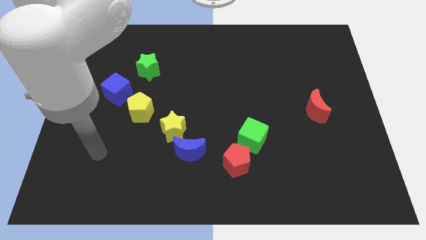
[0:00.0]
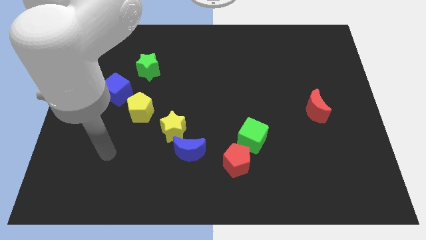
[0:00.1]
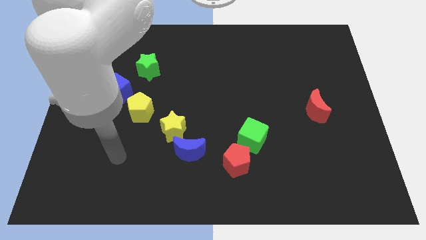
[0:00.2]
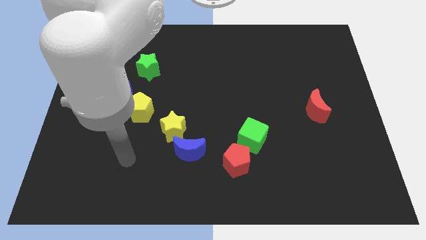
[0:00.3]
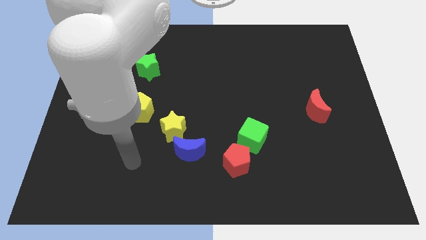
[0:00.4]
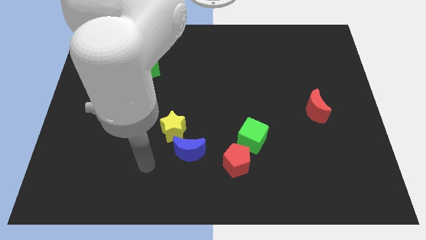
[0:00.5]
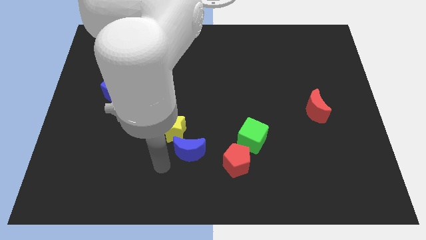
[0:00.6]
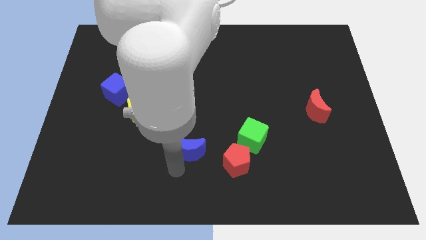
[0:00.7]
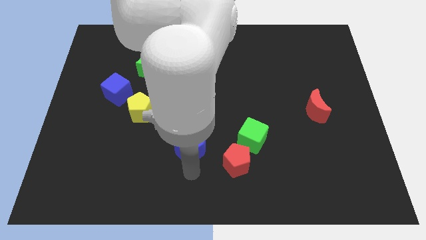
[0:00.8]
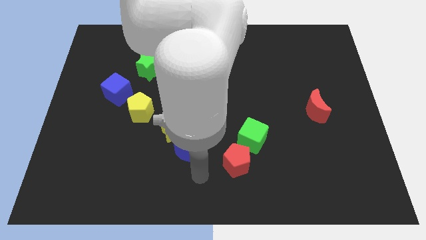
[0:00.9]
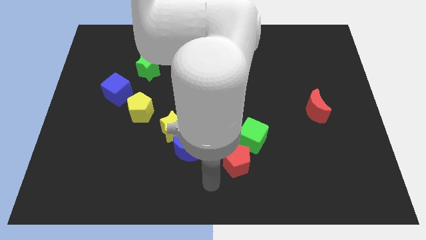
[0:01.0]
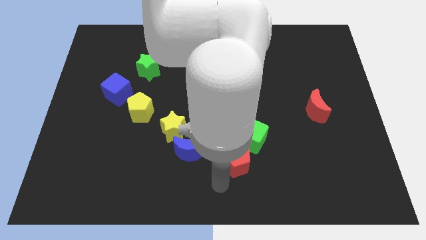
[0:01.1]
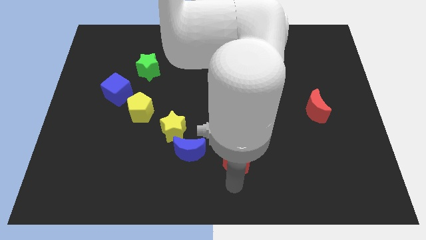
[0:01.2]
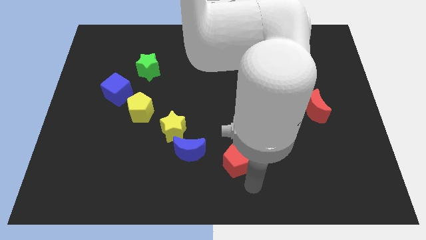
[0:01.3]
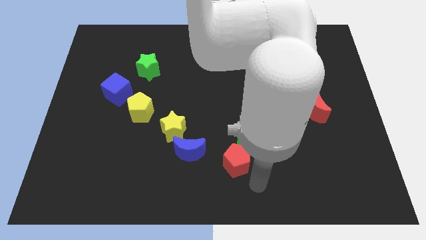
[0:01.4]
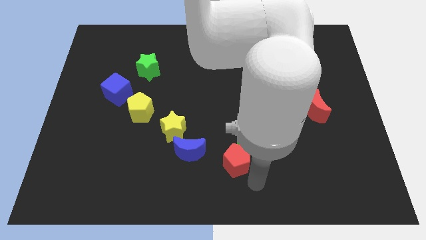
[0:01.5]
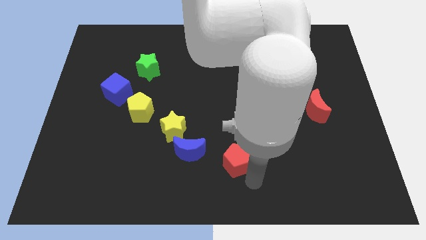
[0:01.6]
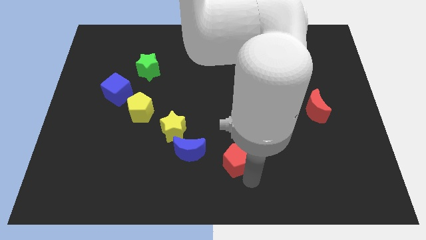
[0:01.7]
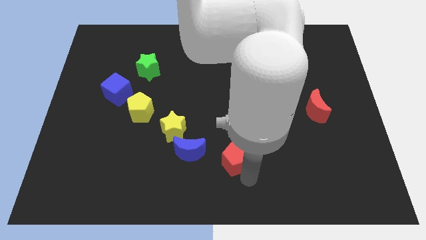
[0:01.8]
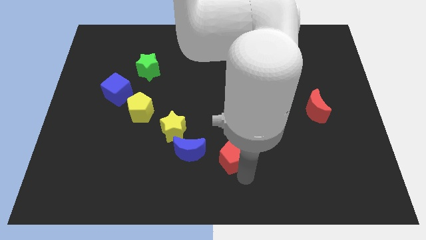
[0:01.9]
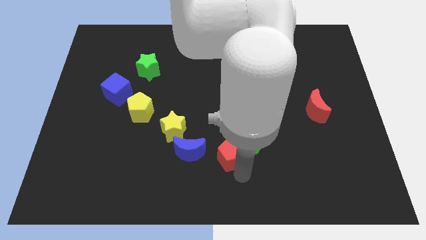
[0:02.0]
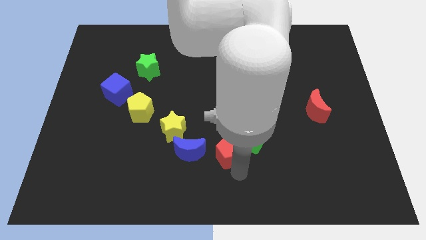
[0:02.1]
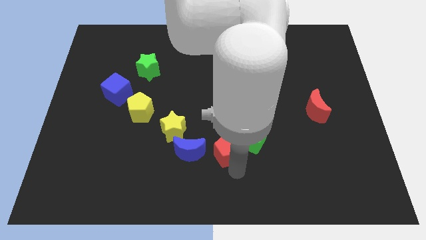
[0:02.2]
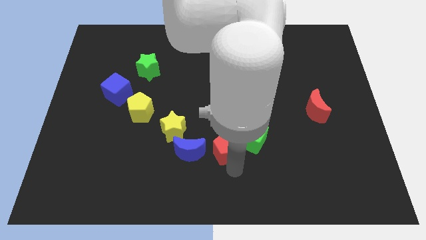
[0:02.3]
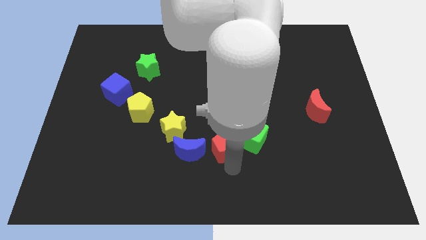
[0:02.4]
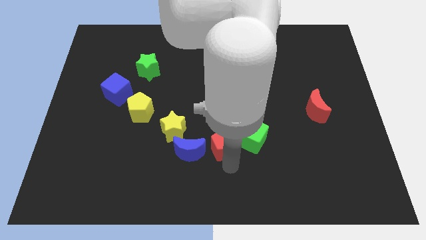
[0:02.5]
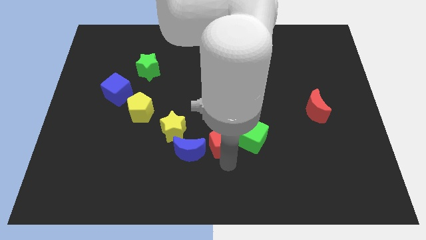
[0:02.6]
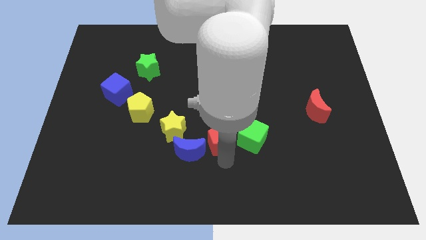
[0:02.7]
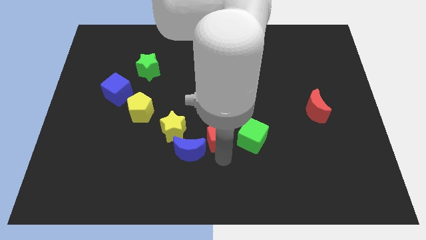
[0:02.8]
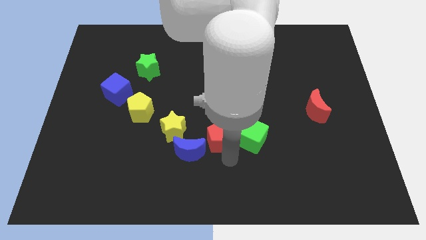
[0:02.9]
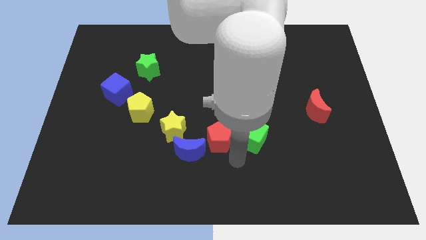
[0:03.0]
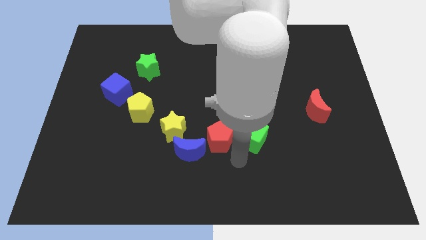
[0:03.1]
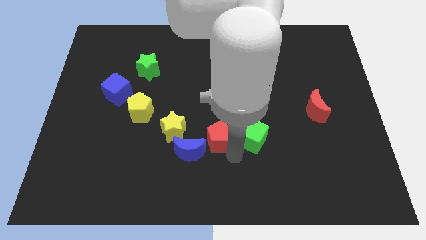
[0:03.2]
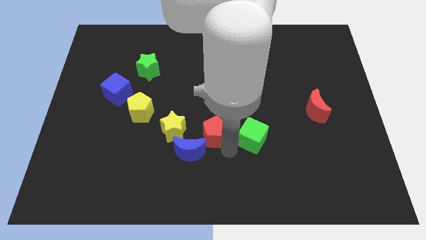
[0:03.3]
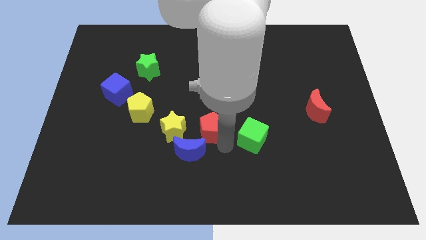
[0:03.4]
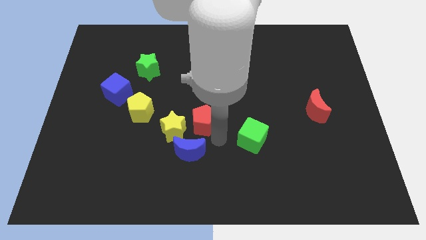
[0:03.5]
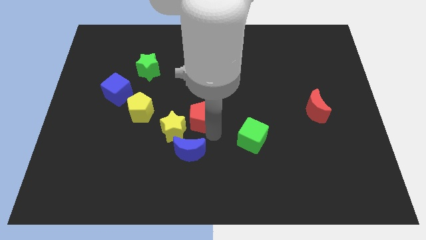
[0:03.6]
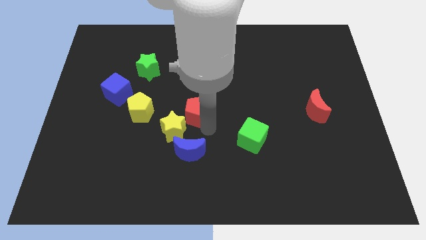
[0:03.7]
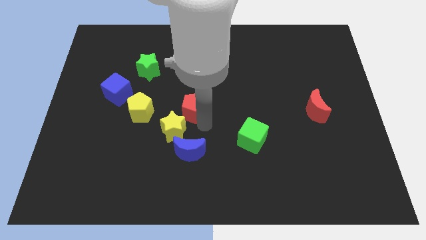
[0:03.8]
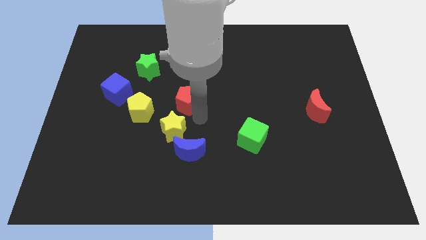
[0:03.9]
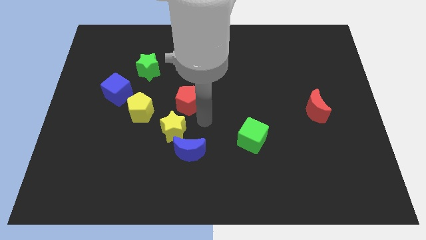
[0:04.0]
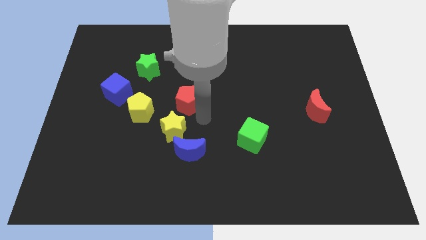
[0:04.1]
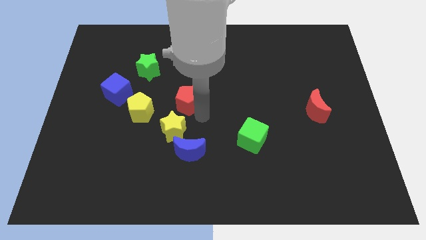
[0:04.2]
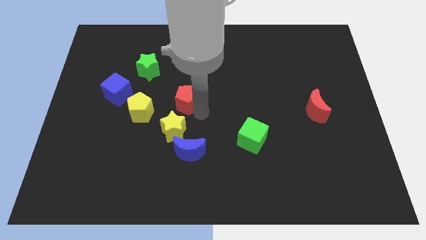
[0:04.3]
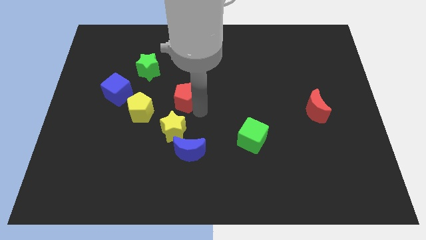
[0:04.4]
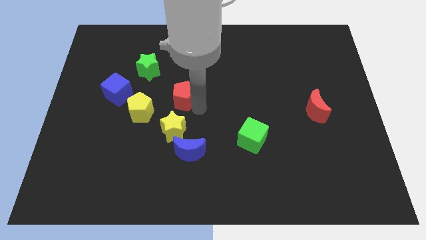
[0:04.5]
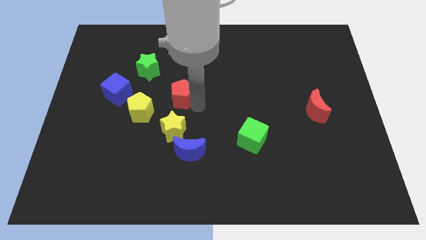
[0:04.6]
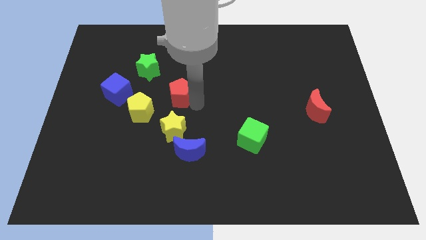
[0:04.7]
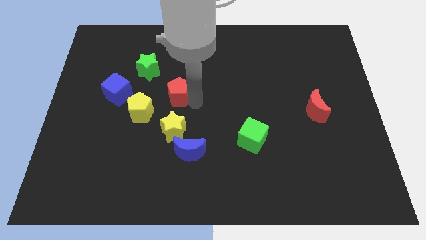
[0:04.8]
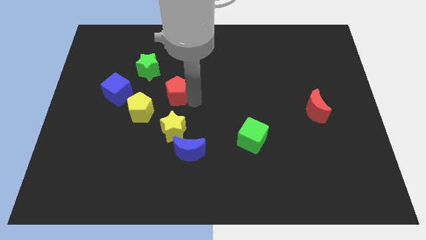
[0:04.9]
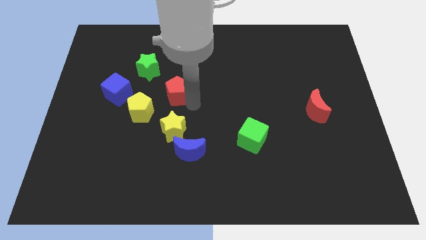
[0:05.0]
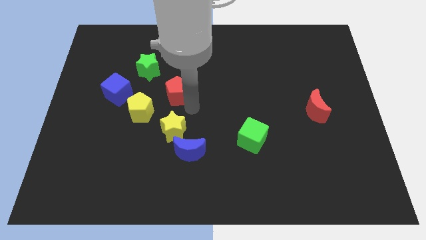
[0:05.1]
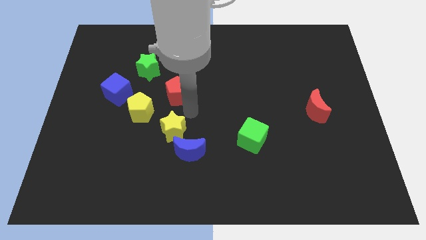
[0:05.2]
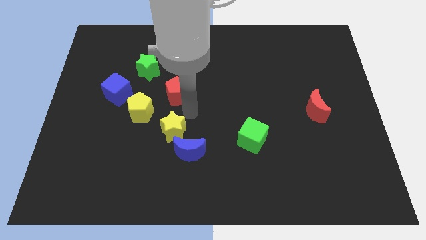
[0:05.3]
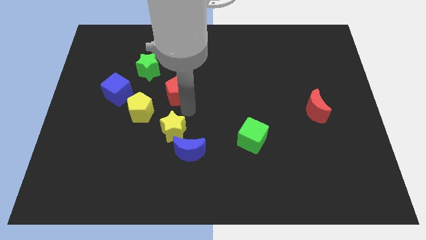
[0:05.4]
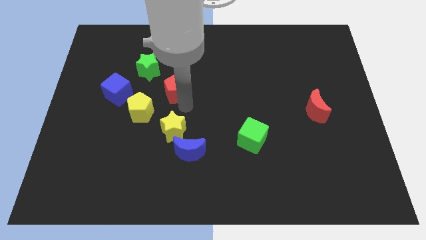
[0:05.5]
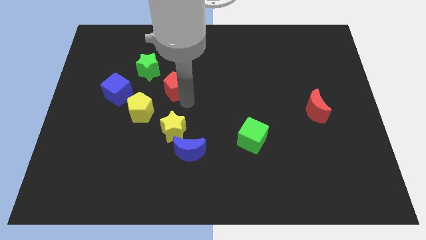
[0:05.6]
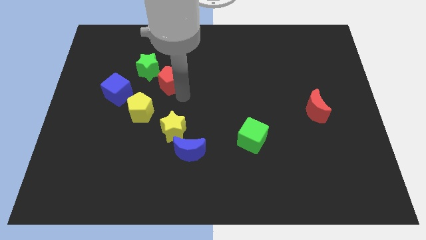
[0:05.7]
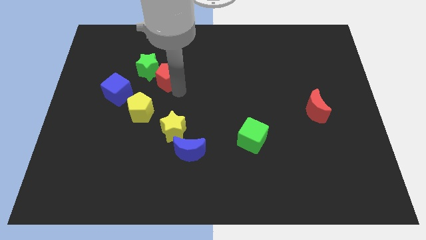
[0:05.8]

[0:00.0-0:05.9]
move the red pentagon towards the green star

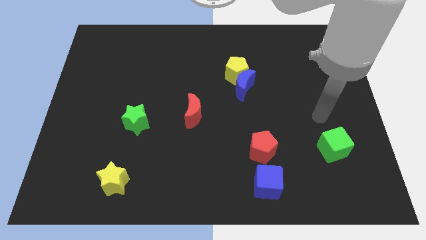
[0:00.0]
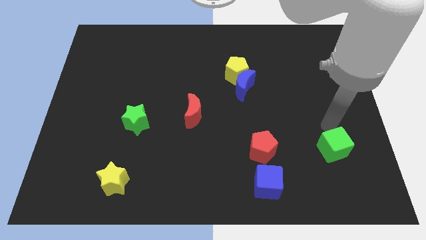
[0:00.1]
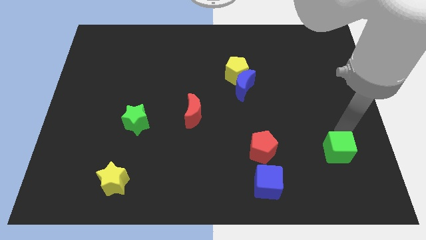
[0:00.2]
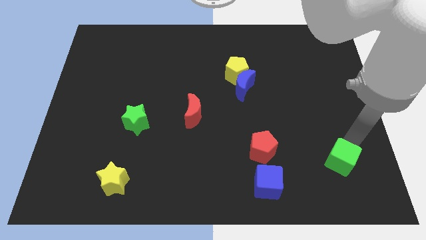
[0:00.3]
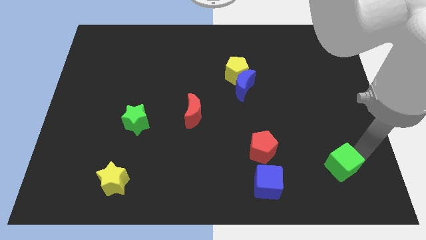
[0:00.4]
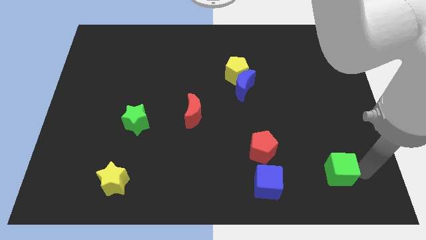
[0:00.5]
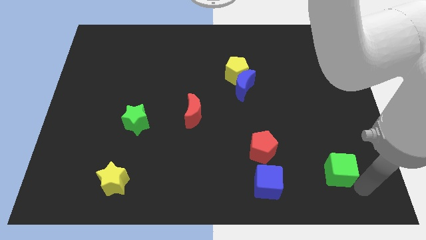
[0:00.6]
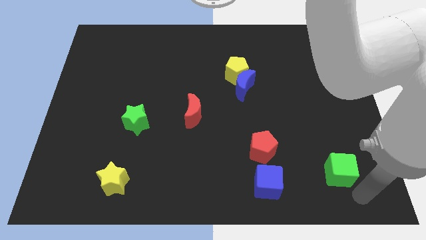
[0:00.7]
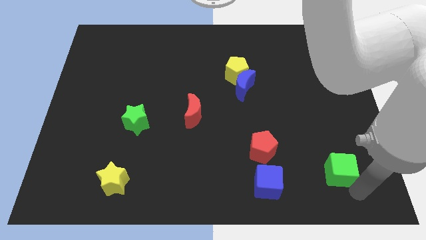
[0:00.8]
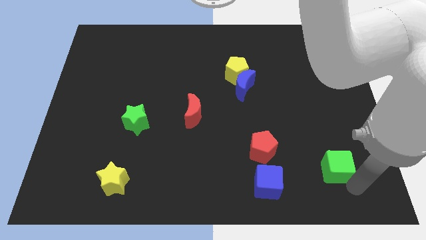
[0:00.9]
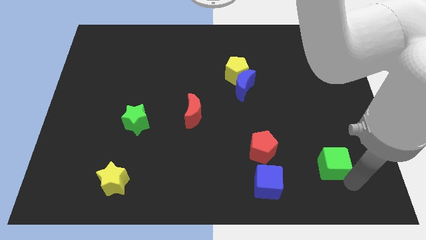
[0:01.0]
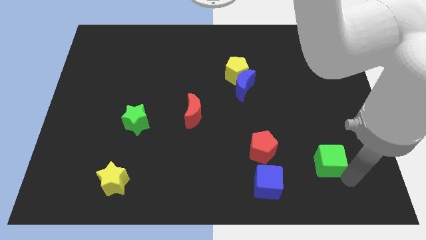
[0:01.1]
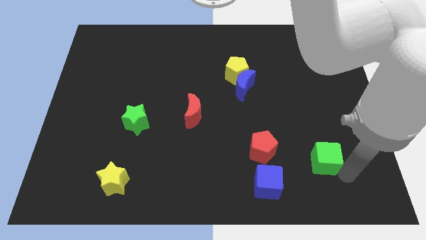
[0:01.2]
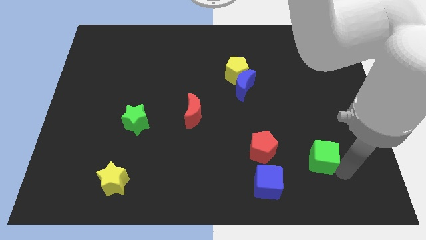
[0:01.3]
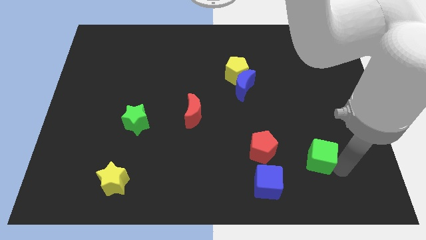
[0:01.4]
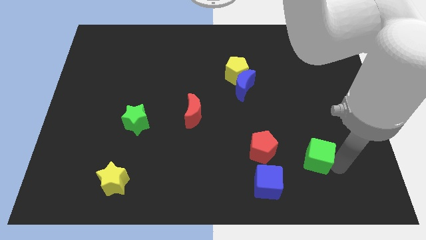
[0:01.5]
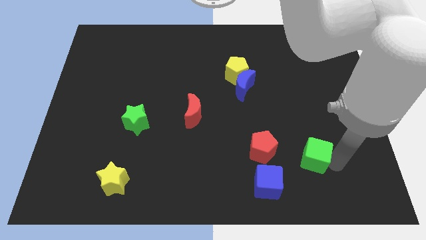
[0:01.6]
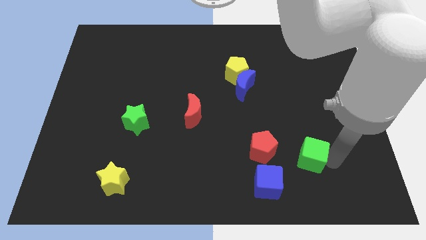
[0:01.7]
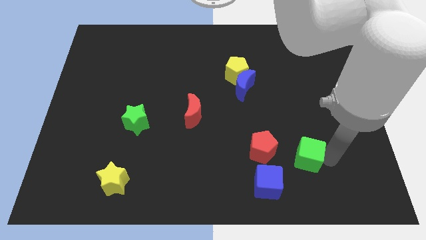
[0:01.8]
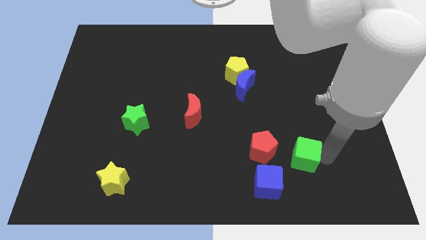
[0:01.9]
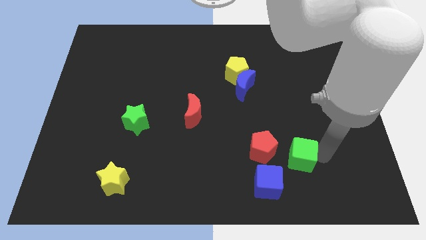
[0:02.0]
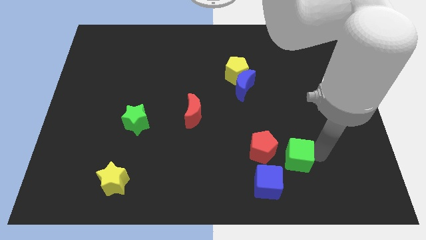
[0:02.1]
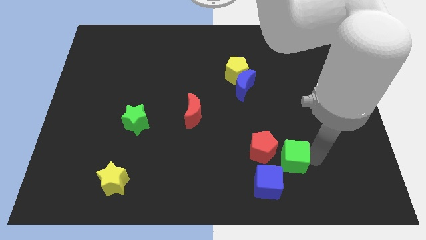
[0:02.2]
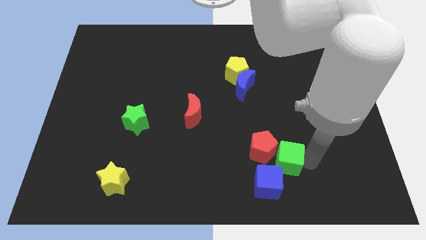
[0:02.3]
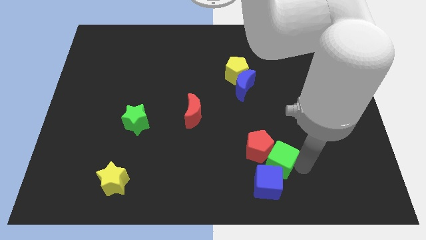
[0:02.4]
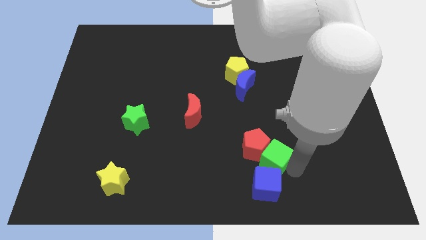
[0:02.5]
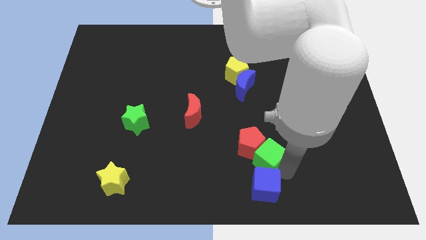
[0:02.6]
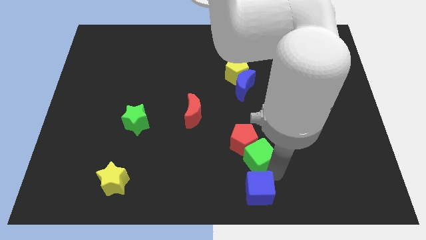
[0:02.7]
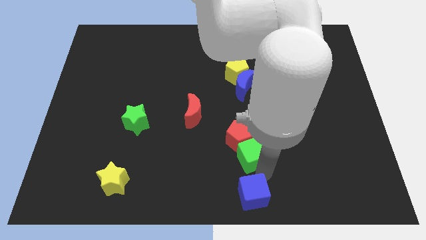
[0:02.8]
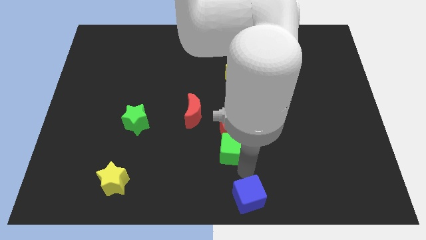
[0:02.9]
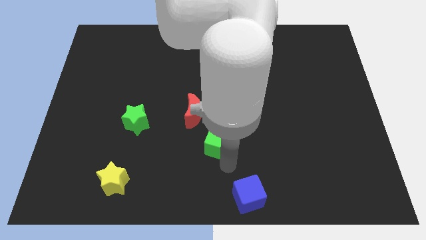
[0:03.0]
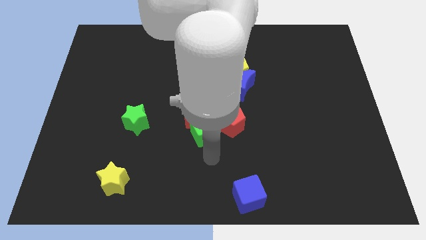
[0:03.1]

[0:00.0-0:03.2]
move the green cube towards the red moon
